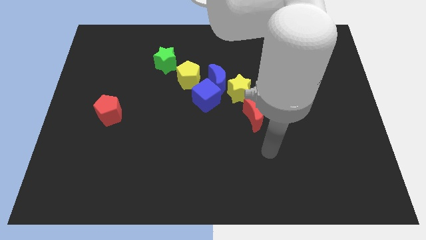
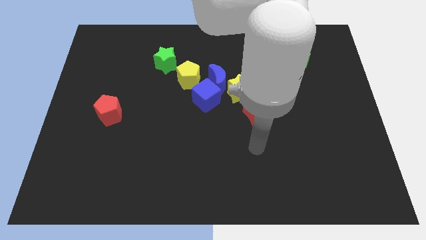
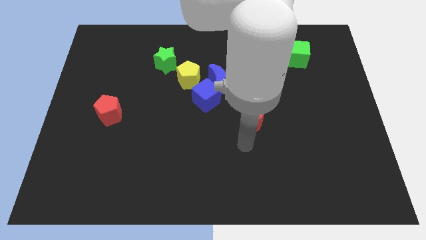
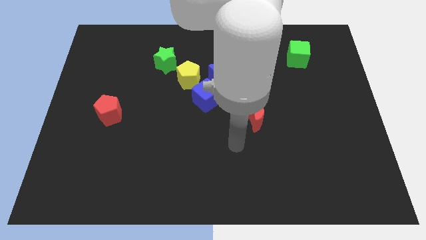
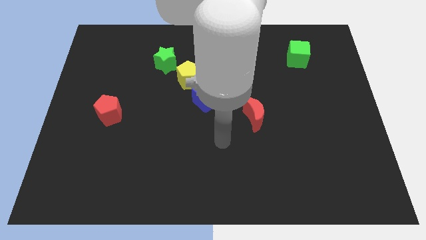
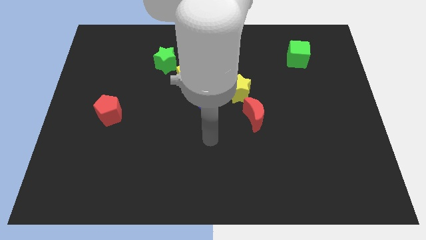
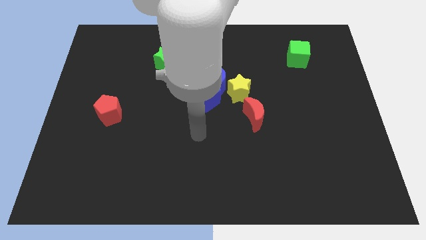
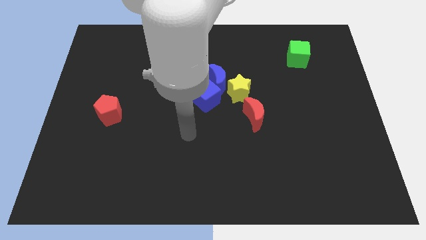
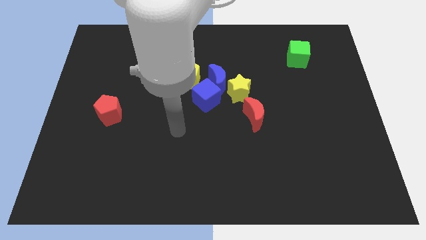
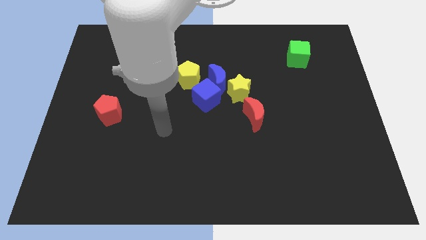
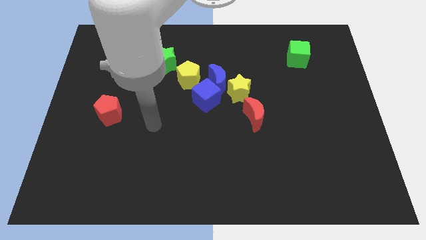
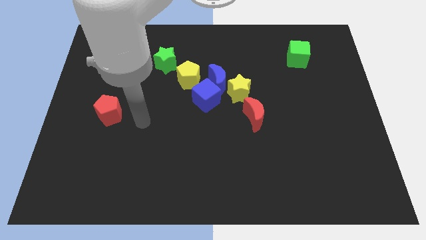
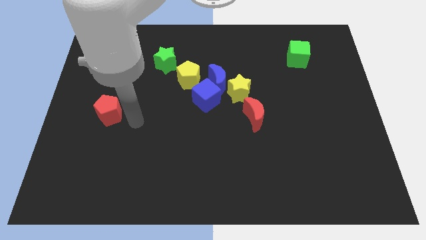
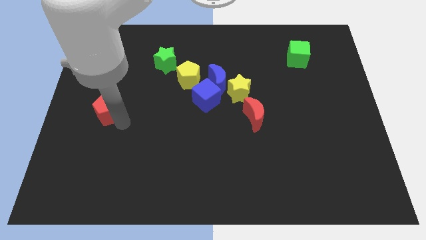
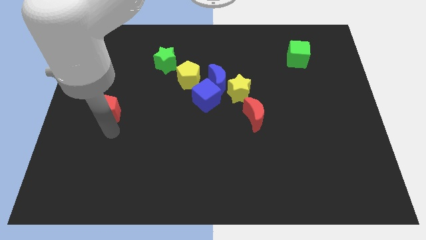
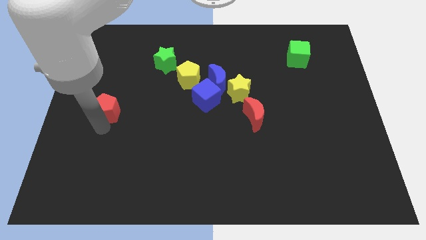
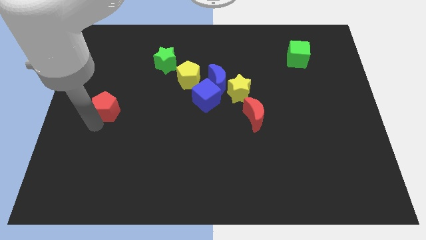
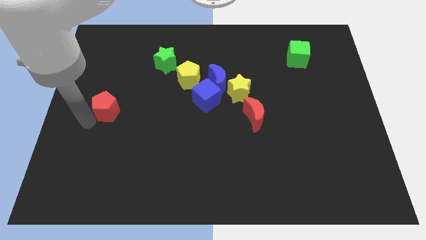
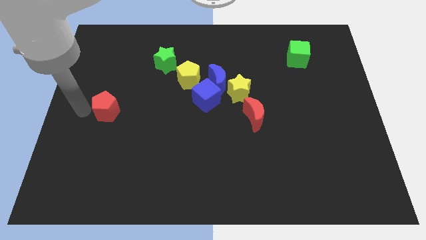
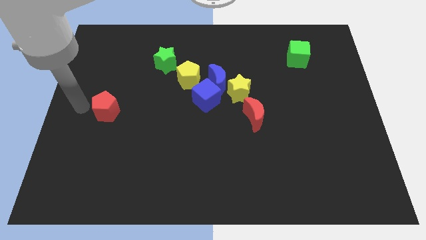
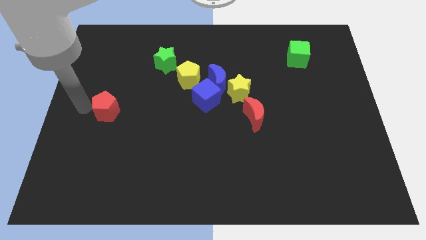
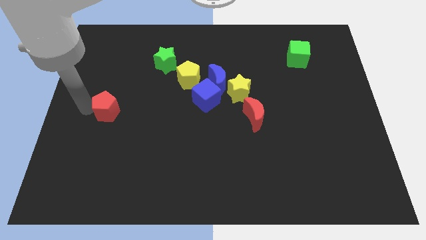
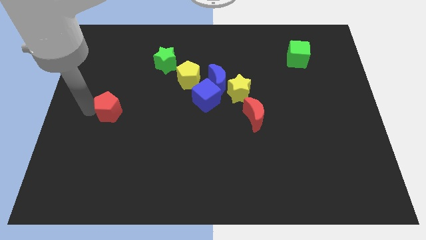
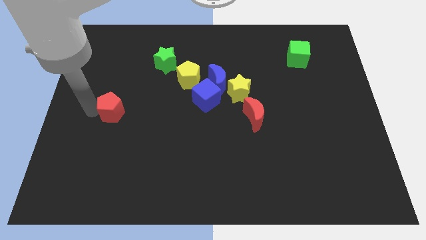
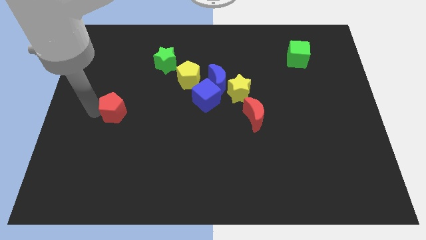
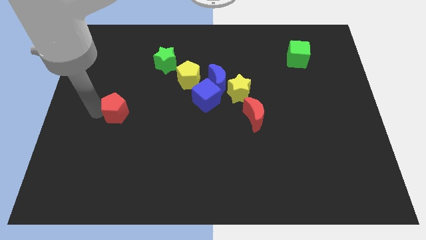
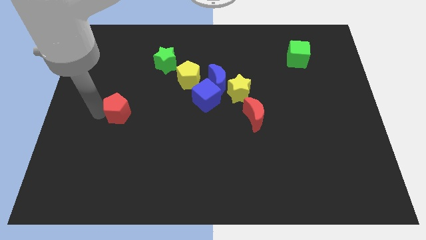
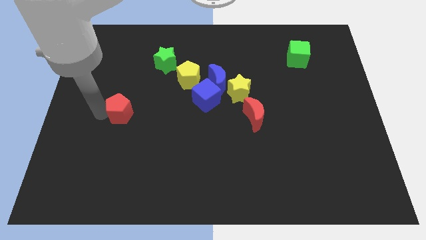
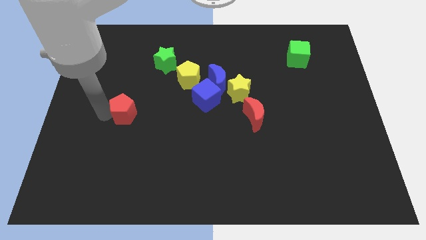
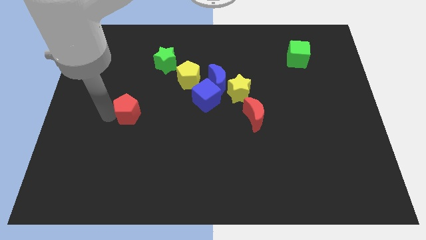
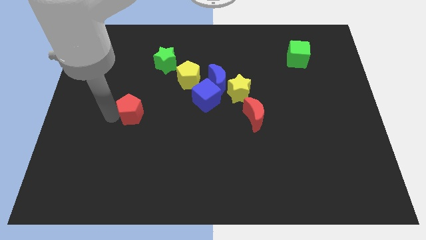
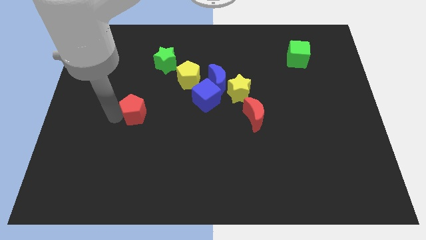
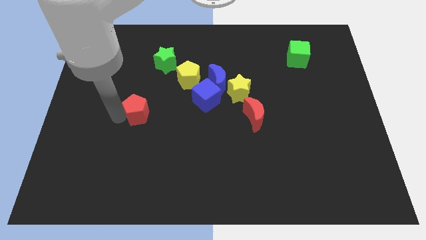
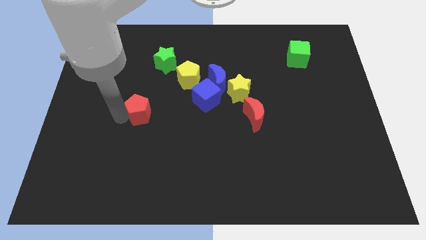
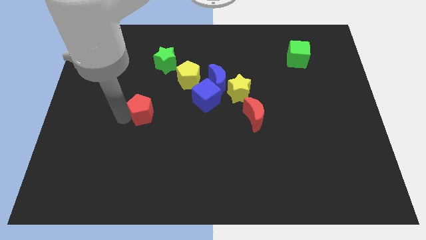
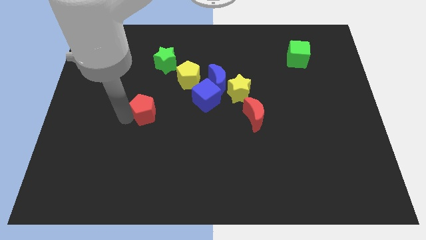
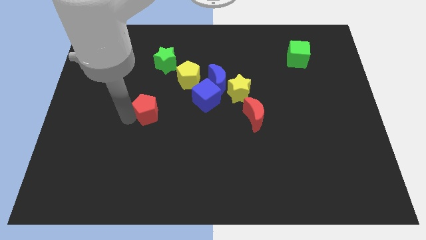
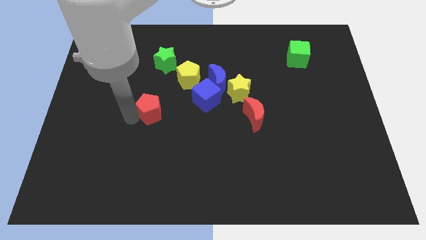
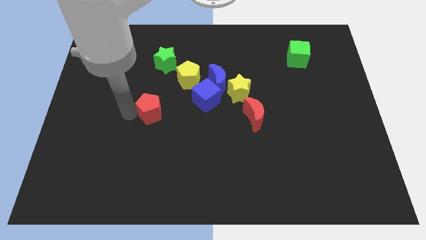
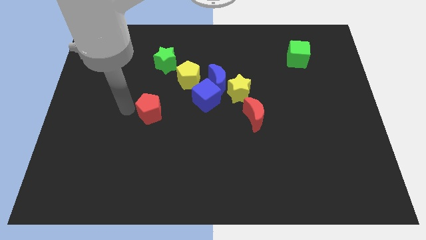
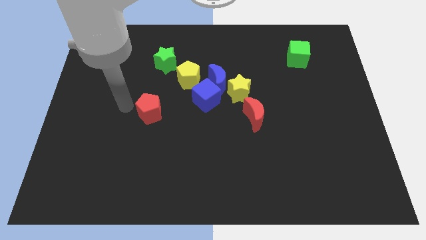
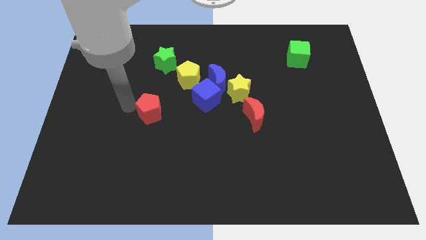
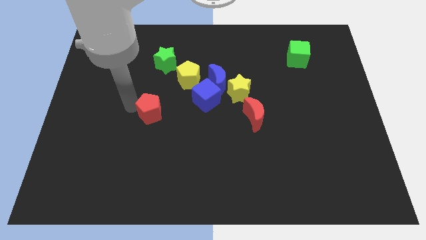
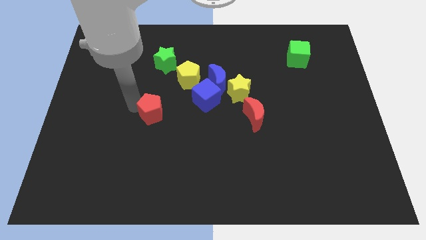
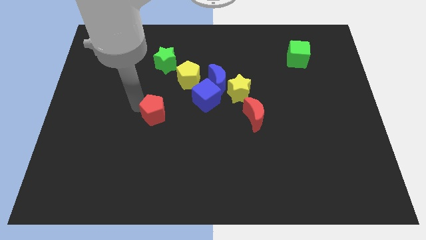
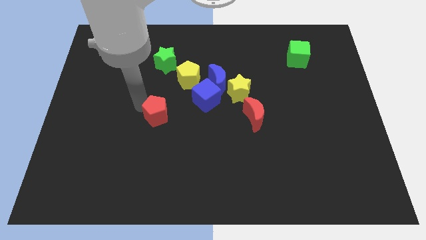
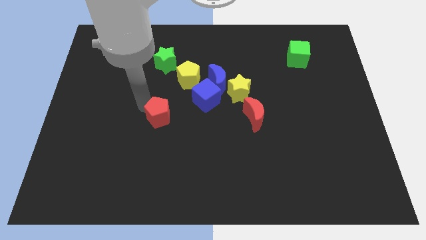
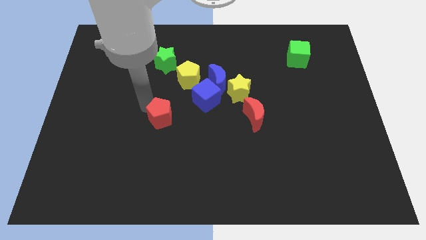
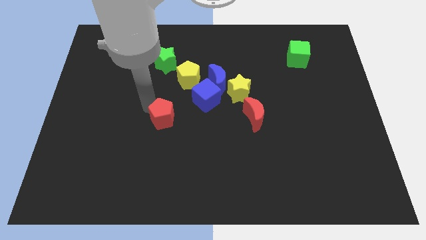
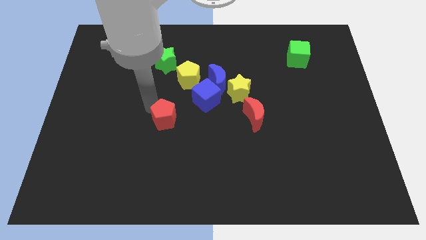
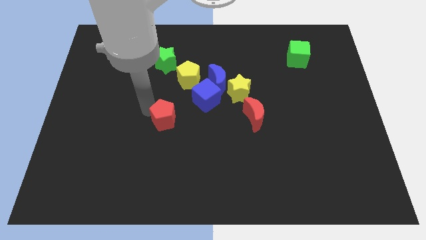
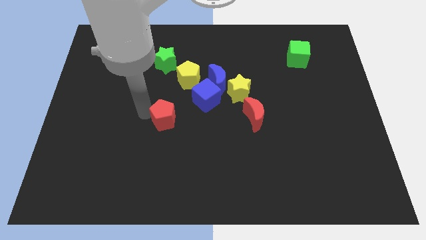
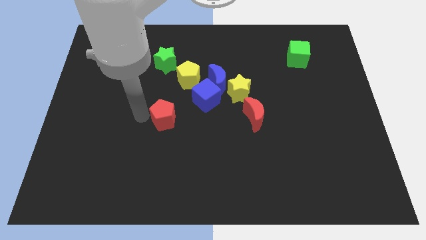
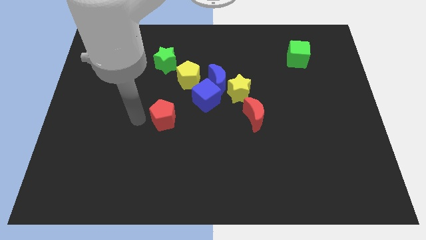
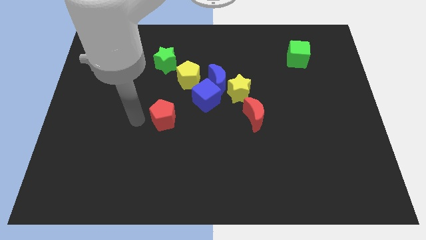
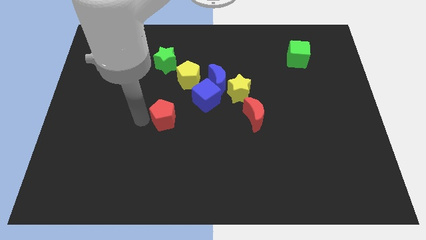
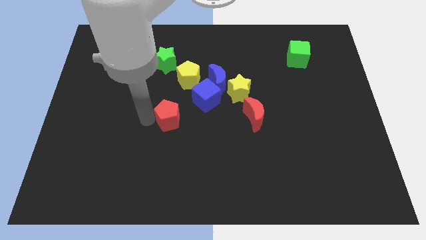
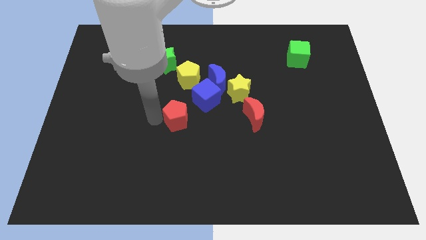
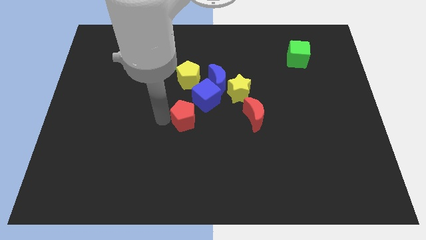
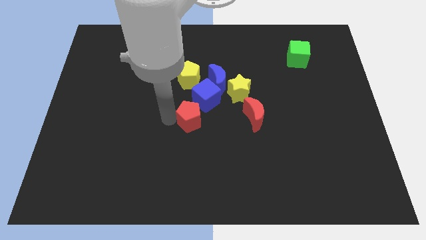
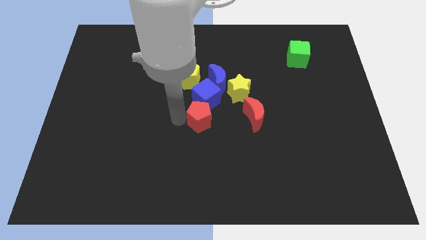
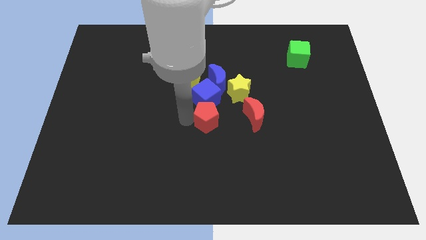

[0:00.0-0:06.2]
push the red pentagon diagonally down and to the right of the blue cube

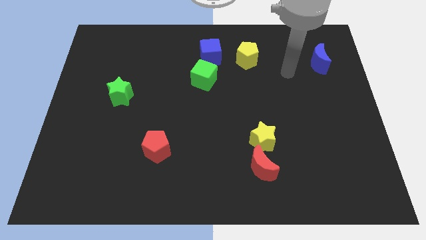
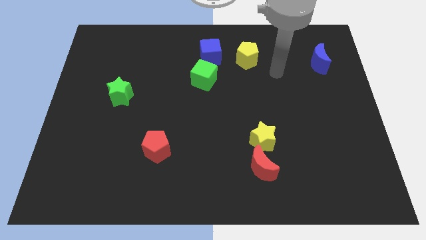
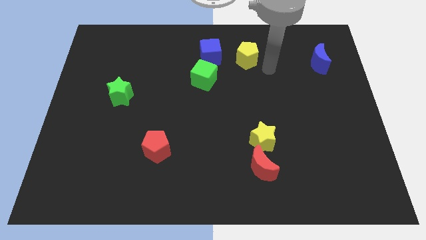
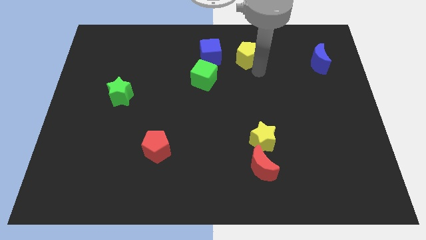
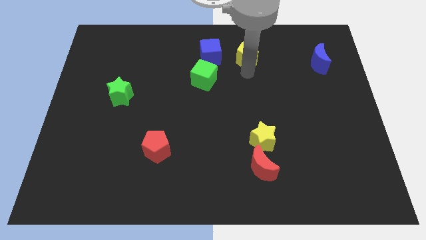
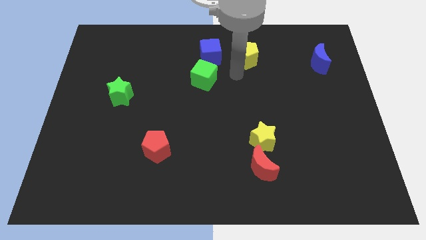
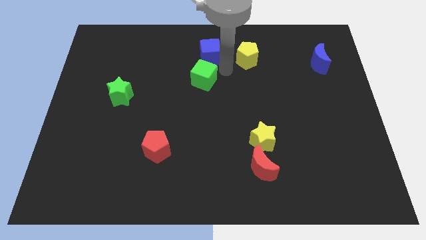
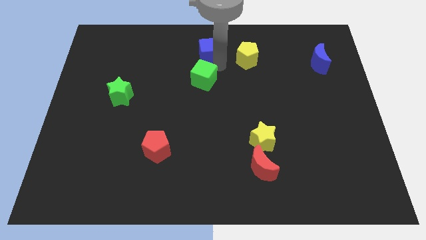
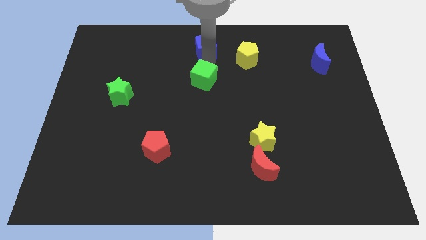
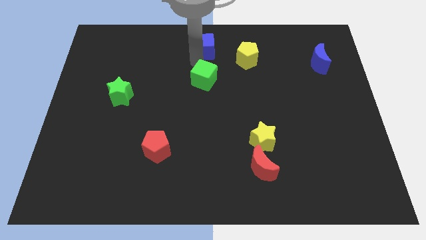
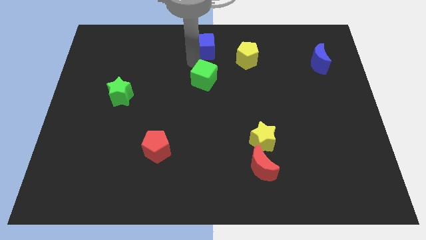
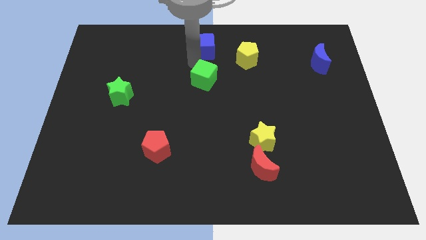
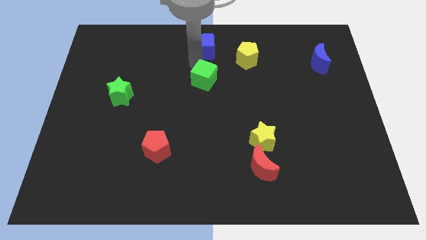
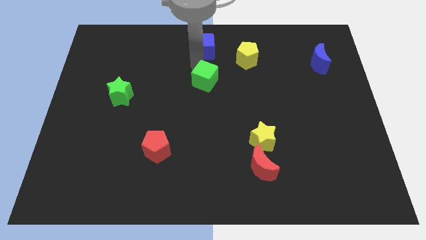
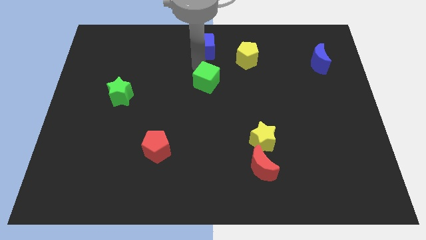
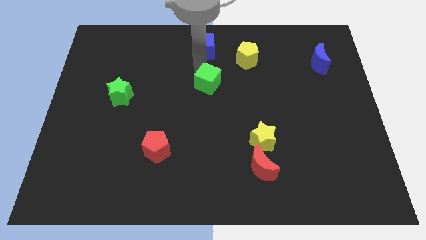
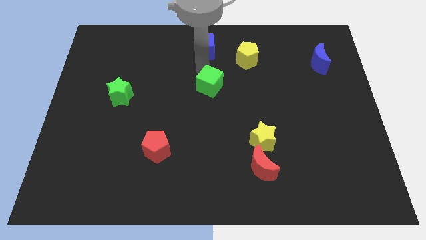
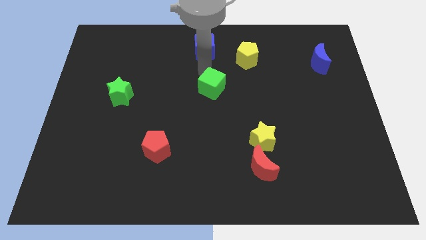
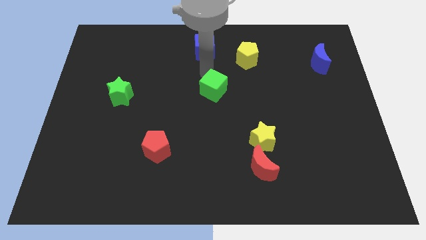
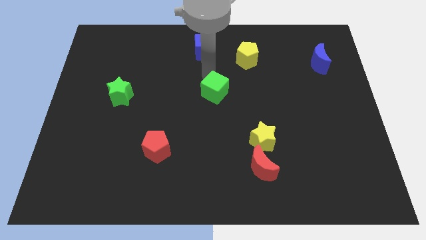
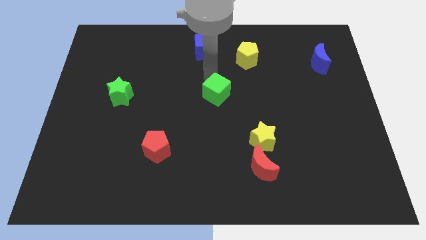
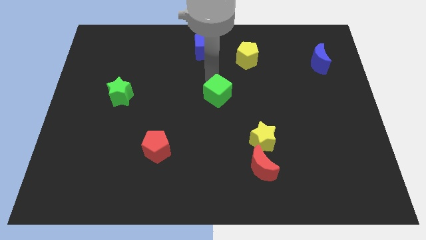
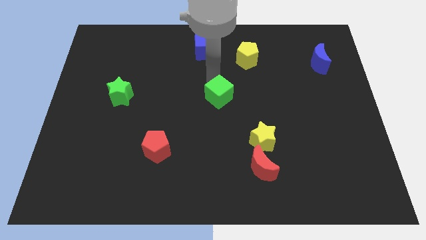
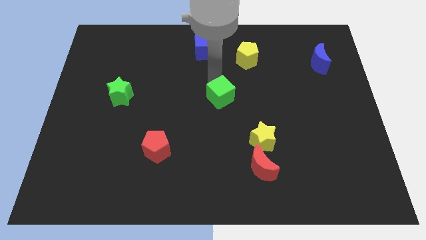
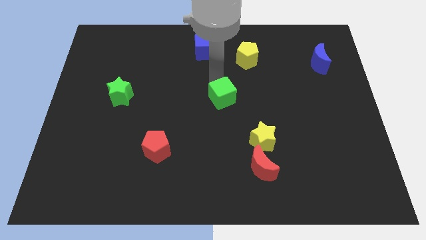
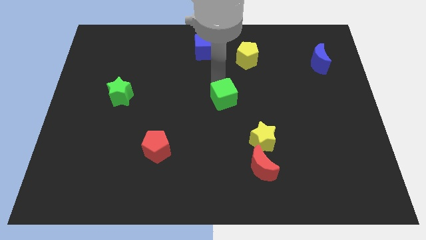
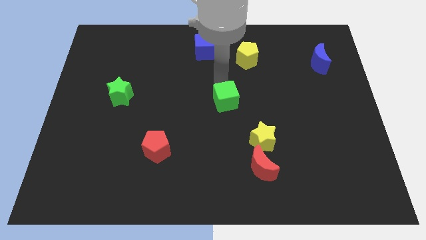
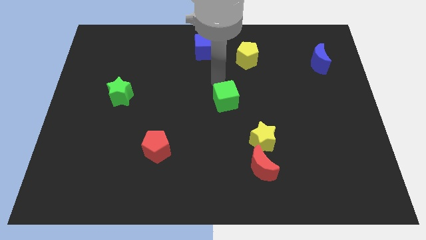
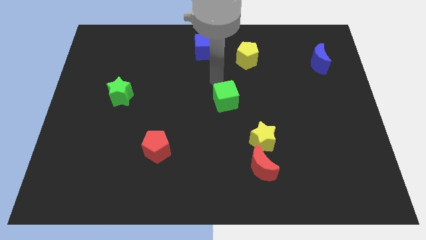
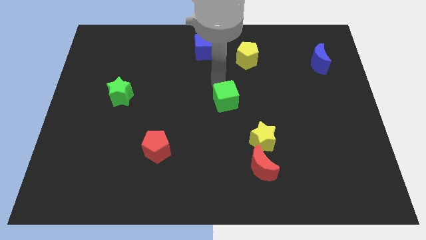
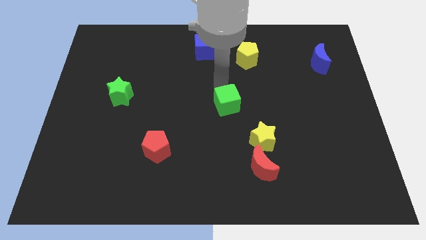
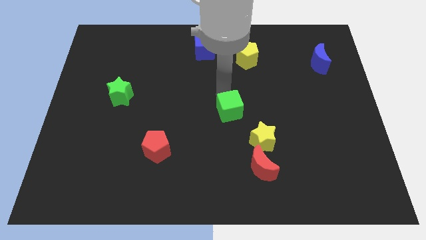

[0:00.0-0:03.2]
move the green cube diagonally up and to the left of the yellow star
